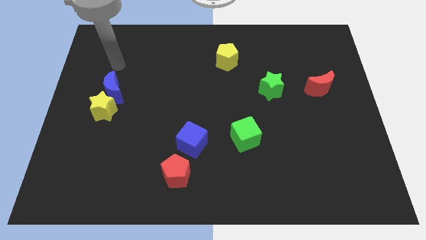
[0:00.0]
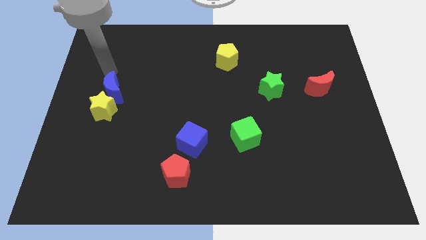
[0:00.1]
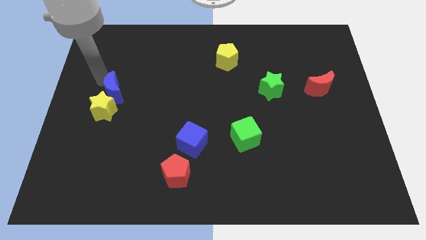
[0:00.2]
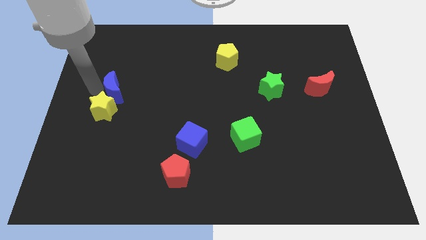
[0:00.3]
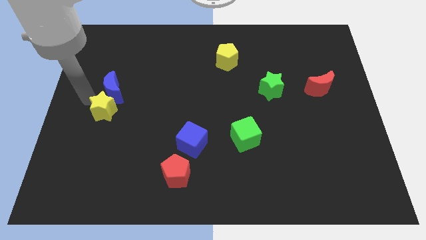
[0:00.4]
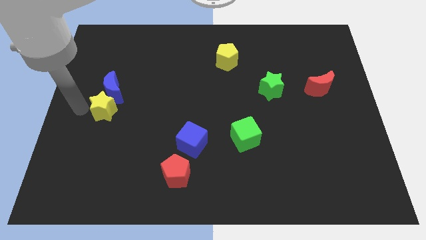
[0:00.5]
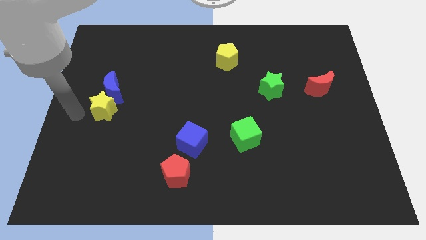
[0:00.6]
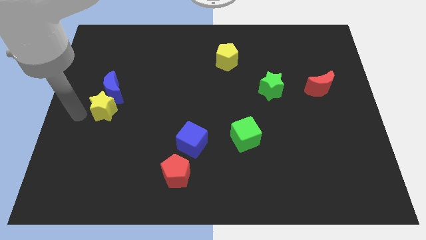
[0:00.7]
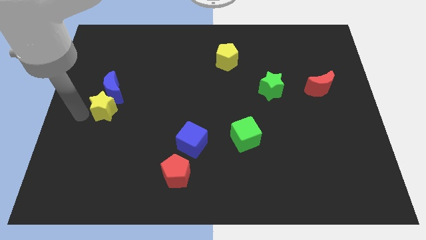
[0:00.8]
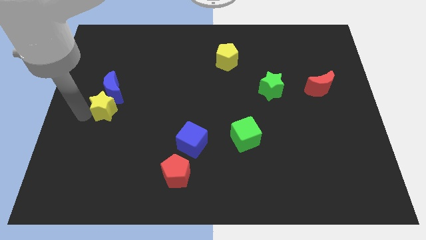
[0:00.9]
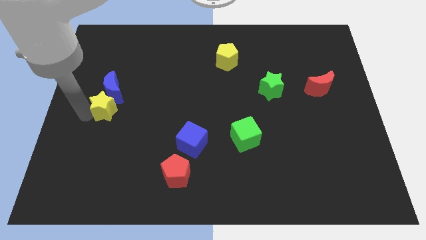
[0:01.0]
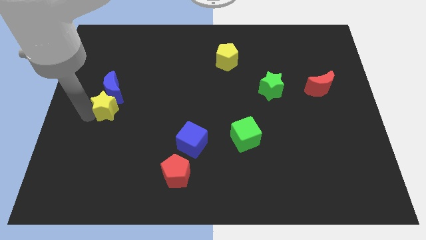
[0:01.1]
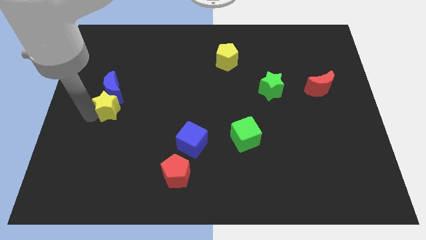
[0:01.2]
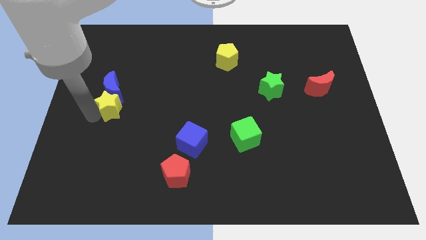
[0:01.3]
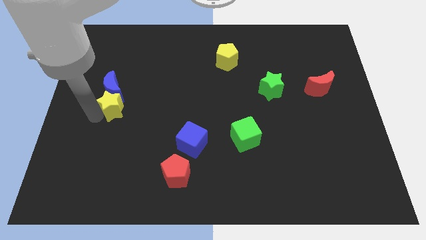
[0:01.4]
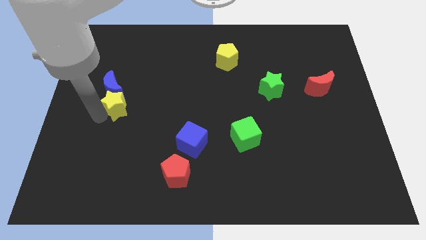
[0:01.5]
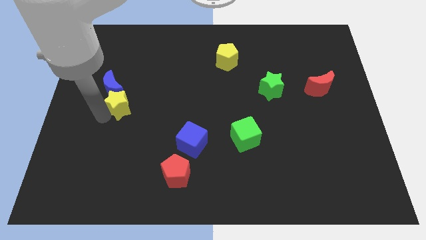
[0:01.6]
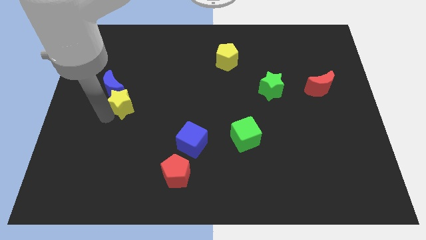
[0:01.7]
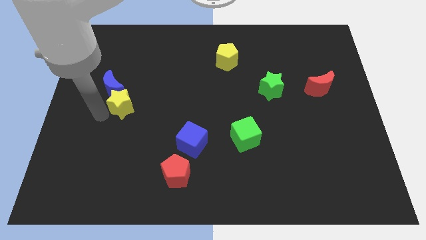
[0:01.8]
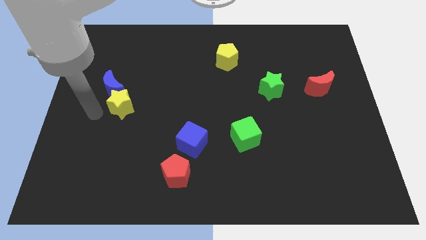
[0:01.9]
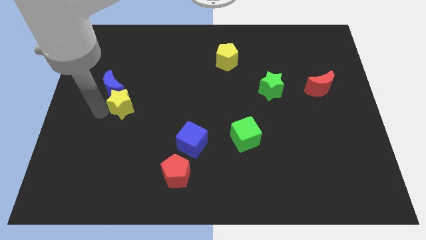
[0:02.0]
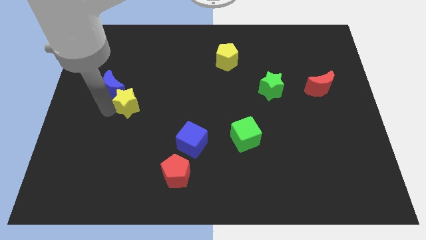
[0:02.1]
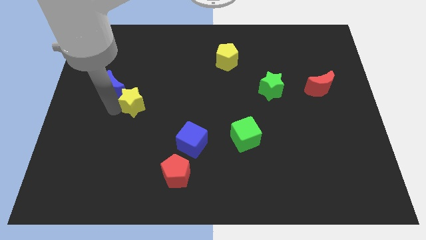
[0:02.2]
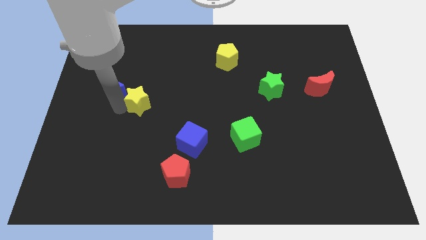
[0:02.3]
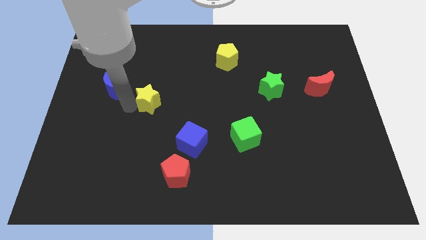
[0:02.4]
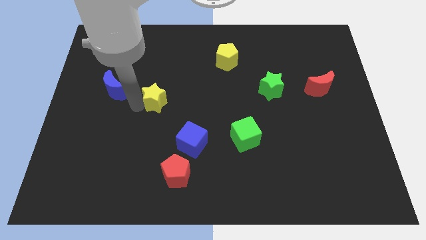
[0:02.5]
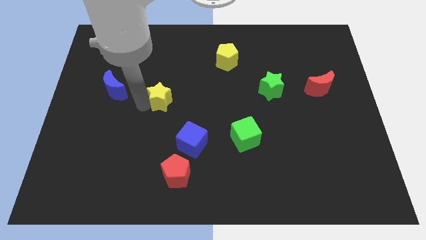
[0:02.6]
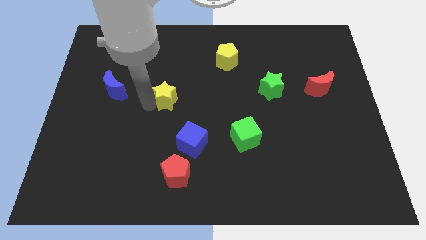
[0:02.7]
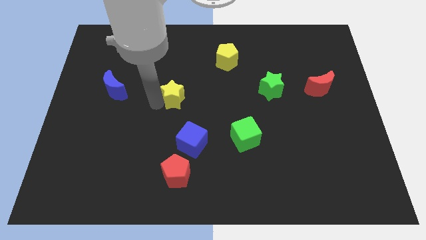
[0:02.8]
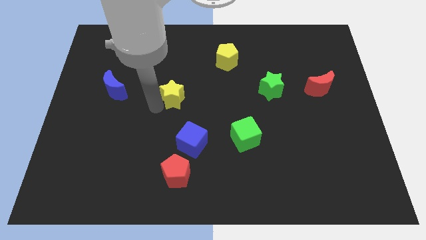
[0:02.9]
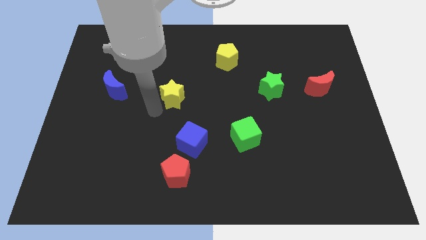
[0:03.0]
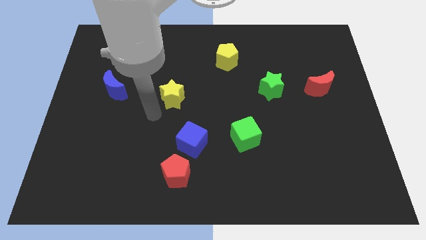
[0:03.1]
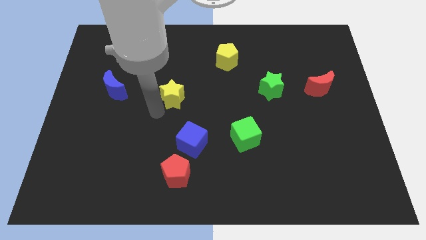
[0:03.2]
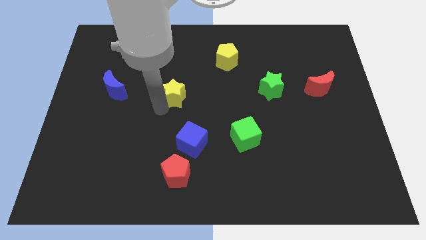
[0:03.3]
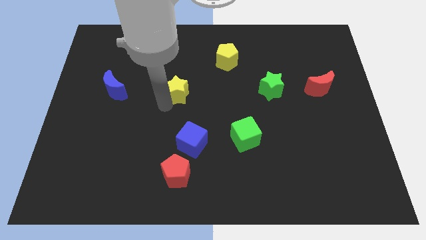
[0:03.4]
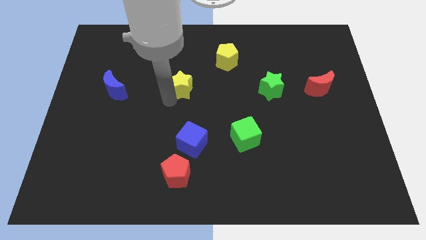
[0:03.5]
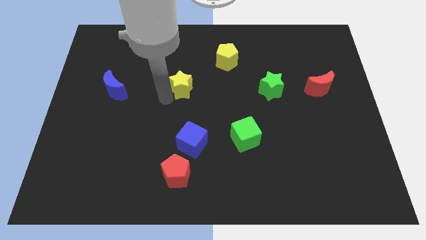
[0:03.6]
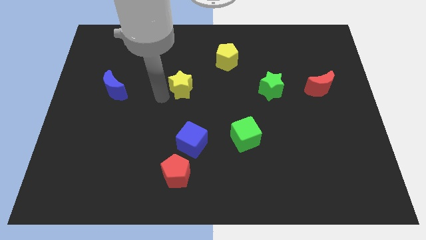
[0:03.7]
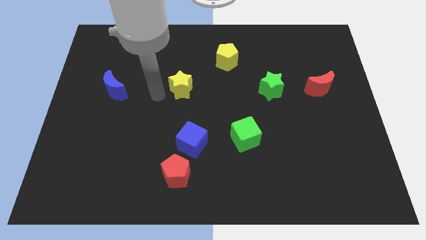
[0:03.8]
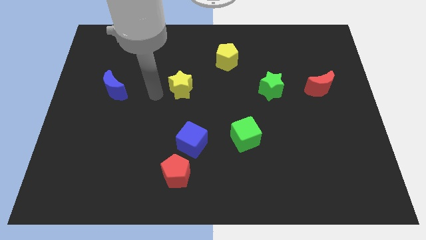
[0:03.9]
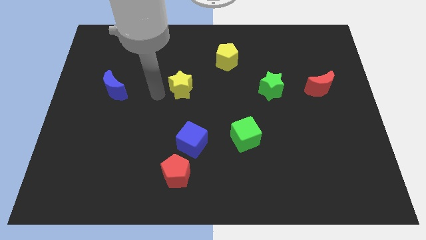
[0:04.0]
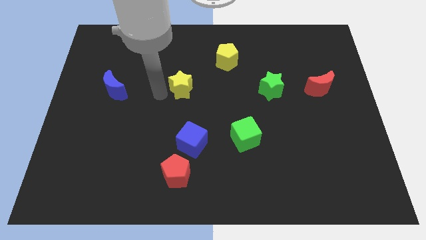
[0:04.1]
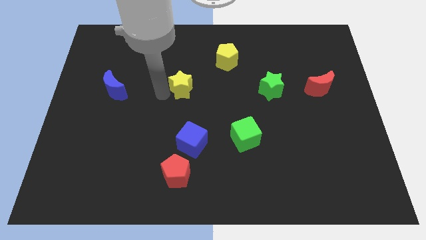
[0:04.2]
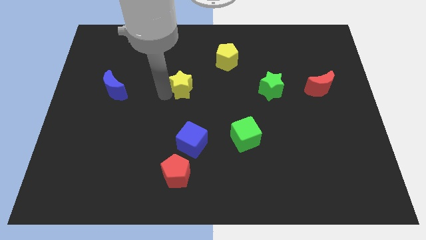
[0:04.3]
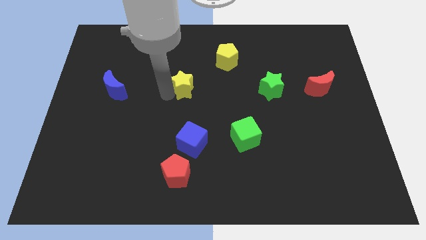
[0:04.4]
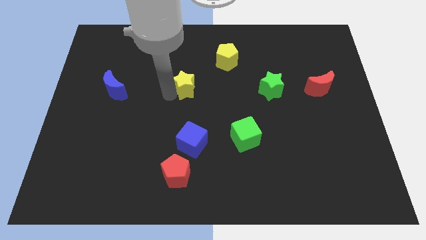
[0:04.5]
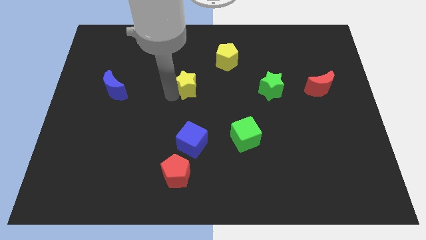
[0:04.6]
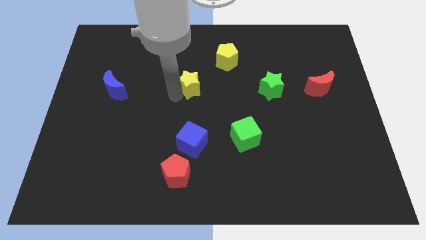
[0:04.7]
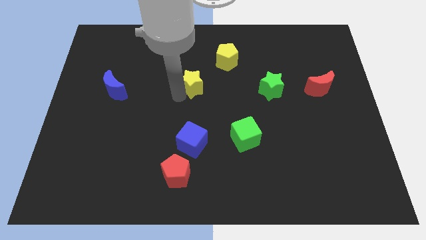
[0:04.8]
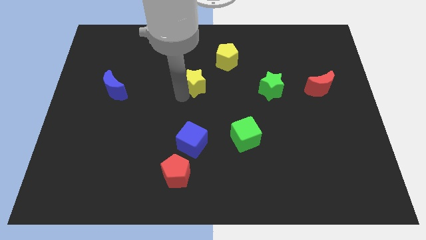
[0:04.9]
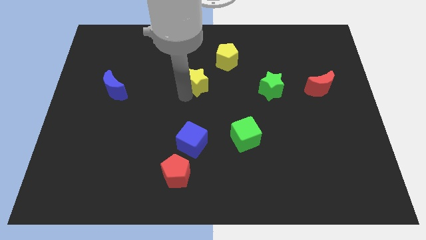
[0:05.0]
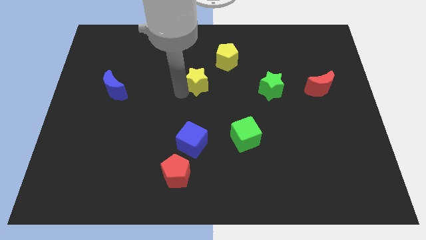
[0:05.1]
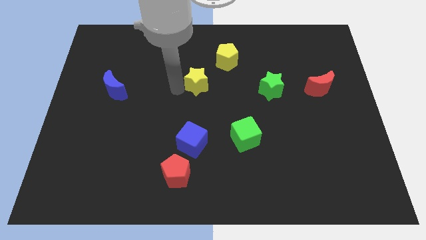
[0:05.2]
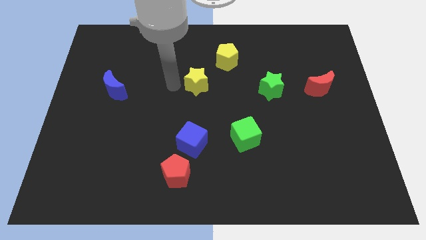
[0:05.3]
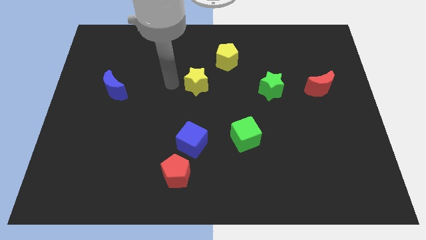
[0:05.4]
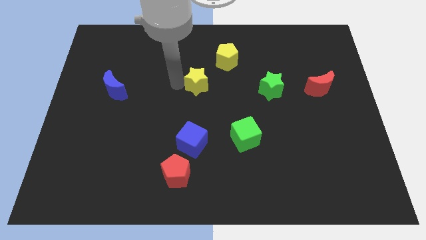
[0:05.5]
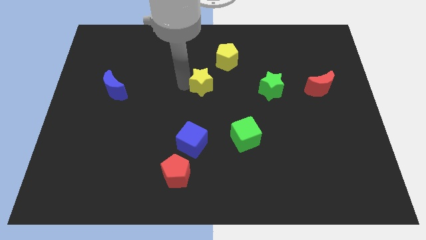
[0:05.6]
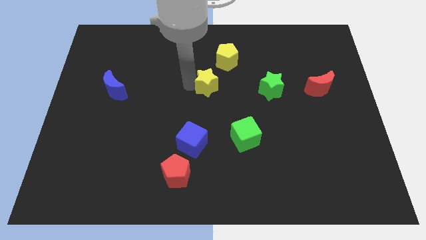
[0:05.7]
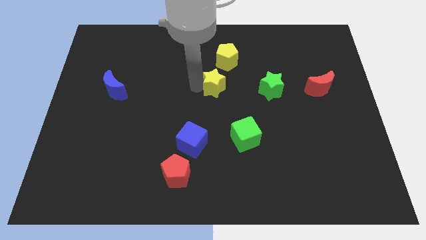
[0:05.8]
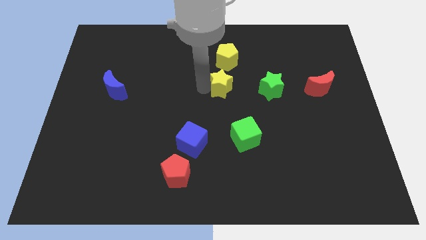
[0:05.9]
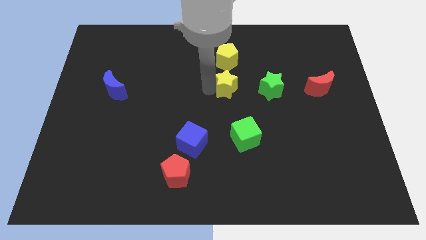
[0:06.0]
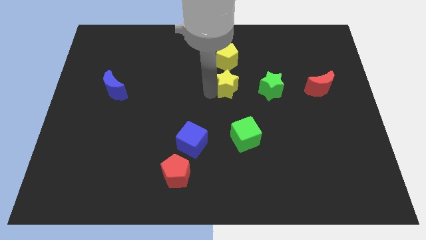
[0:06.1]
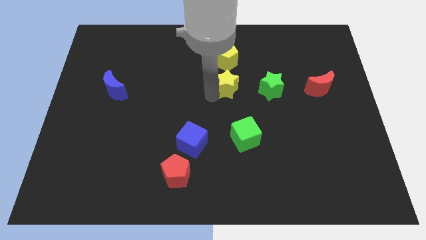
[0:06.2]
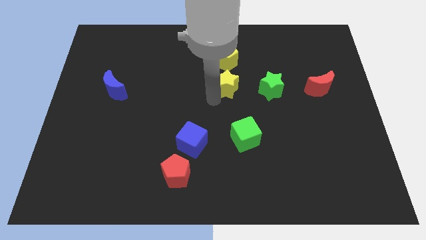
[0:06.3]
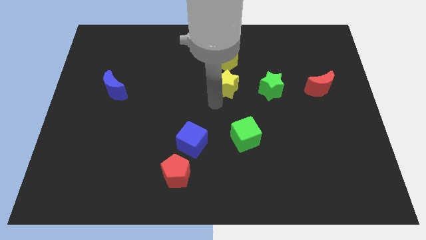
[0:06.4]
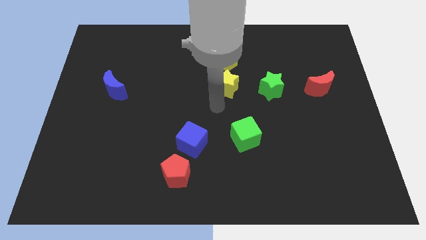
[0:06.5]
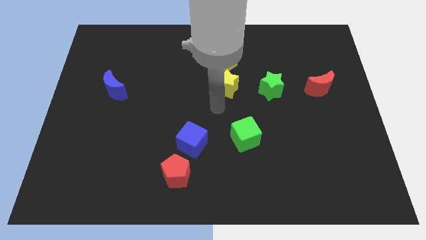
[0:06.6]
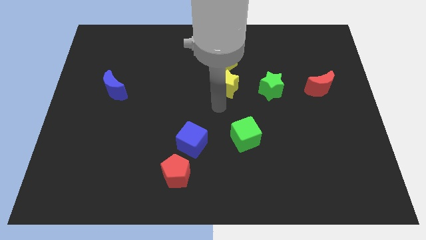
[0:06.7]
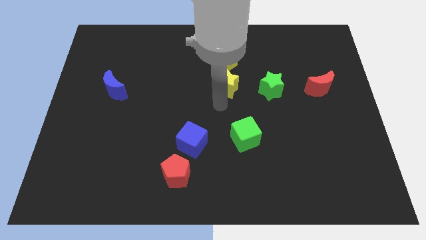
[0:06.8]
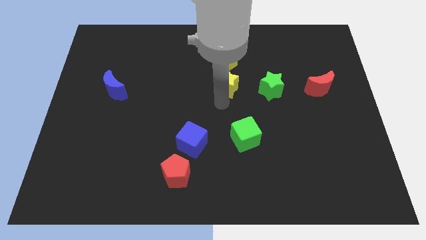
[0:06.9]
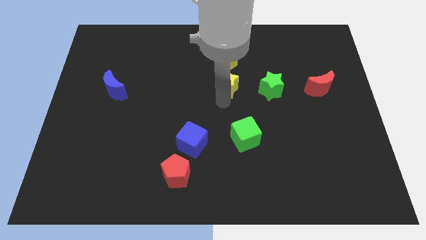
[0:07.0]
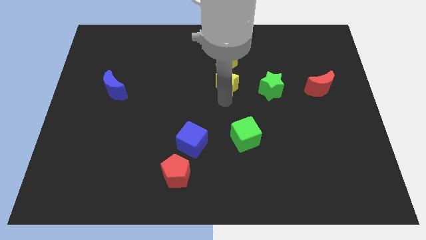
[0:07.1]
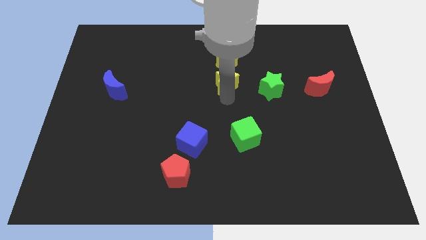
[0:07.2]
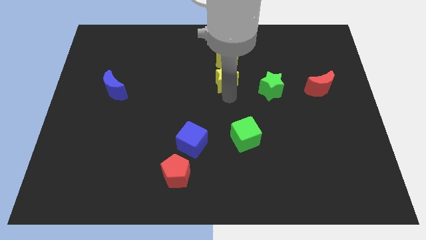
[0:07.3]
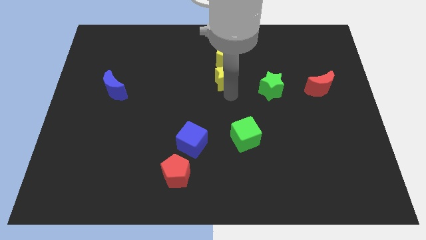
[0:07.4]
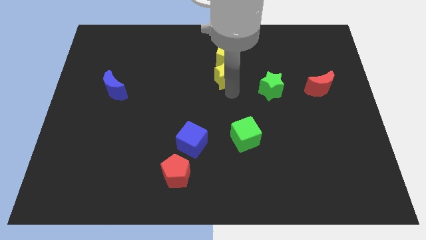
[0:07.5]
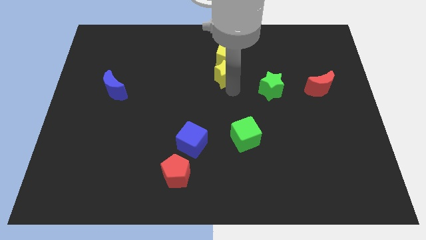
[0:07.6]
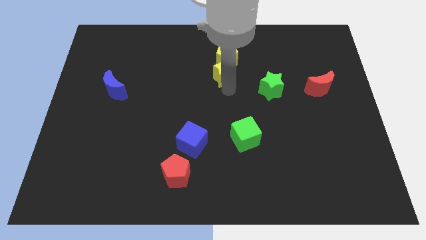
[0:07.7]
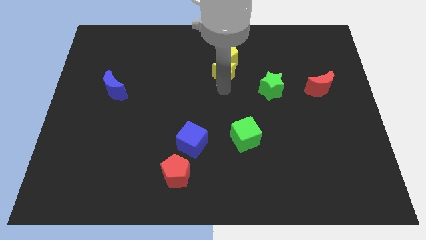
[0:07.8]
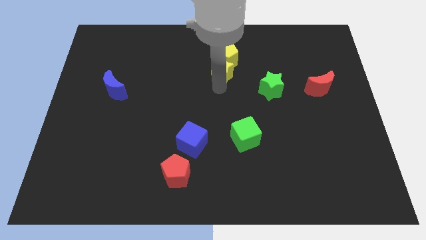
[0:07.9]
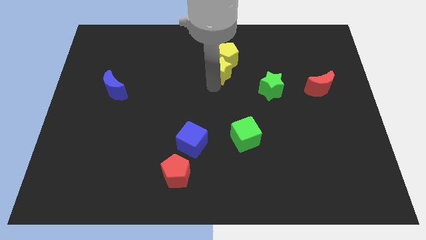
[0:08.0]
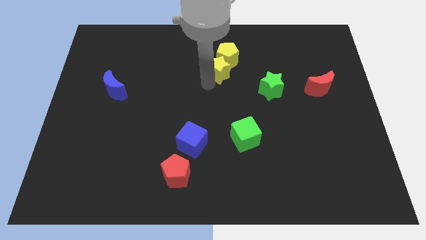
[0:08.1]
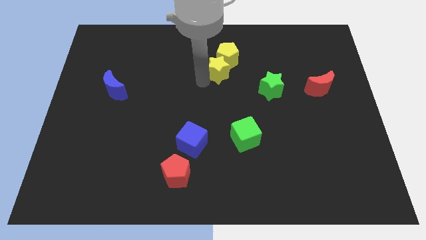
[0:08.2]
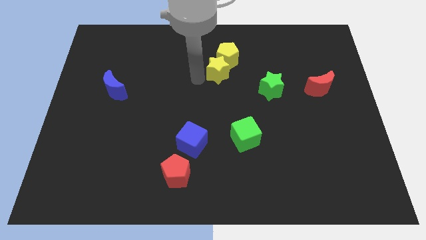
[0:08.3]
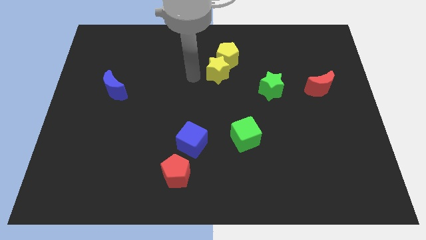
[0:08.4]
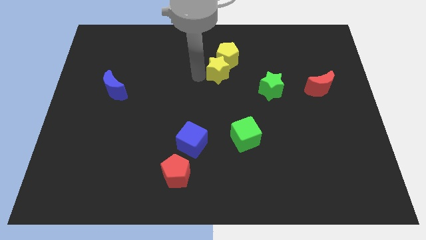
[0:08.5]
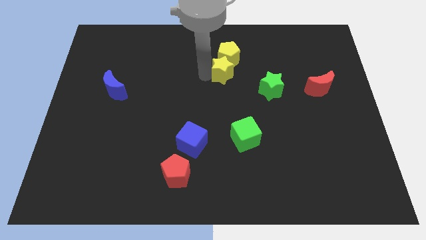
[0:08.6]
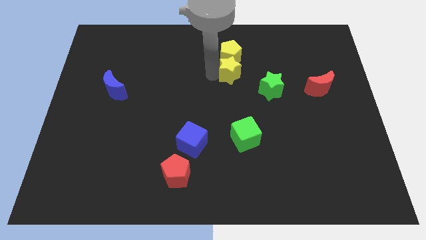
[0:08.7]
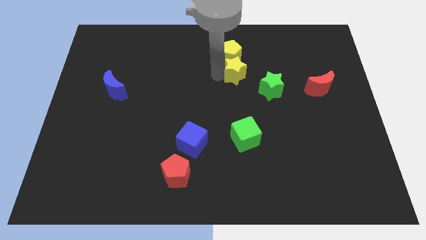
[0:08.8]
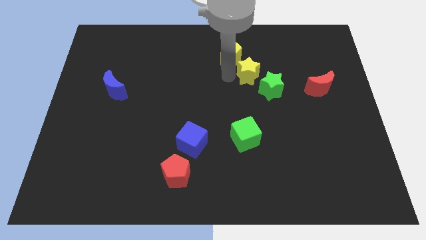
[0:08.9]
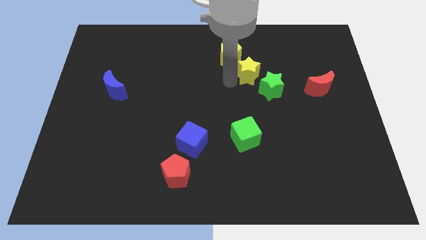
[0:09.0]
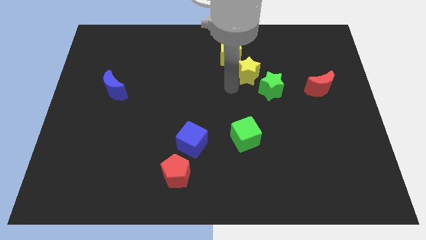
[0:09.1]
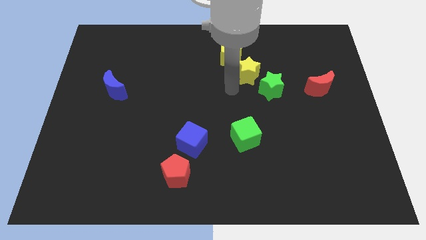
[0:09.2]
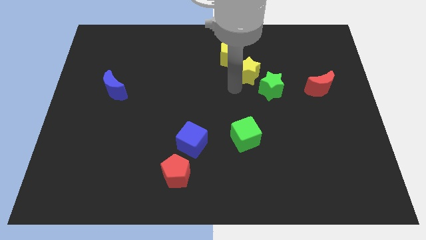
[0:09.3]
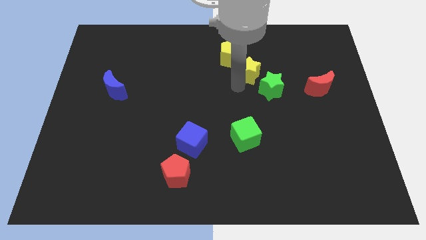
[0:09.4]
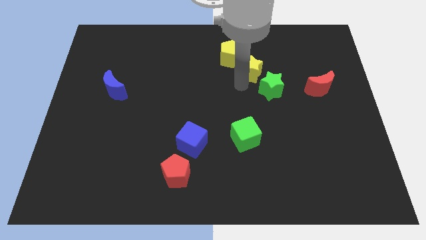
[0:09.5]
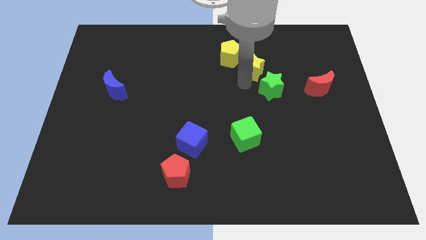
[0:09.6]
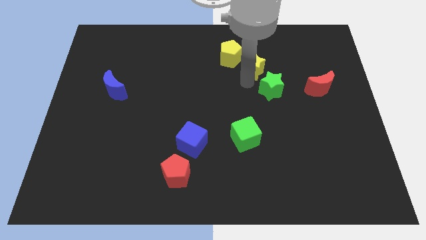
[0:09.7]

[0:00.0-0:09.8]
move the yellow star just right of the yellow pentagon
